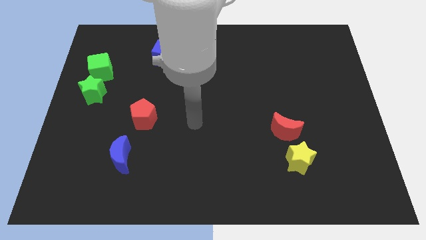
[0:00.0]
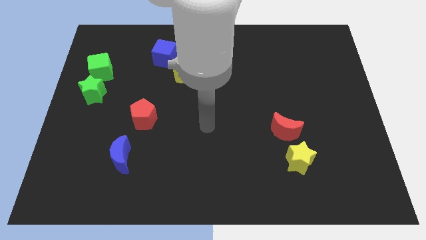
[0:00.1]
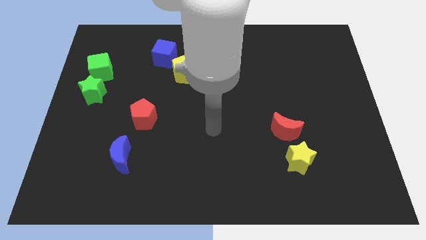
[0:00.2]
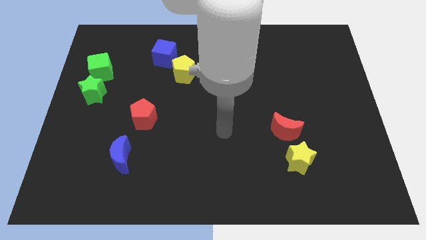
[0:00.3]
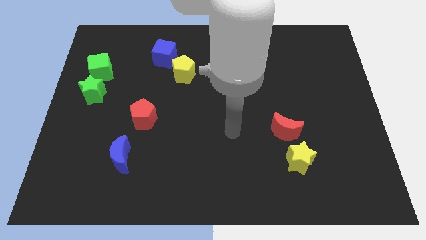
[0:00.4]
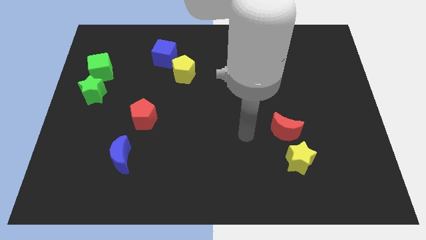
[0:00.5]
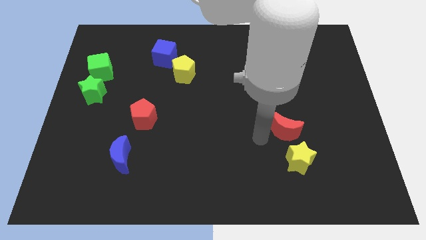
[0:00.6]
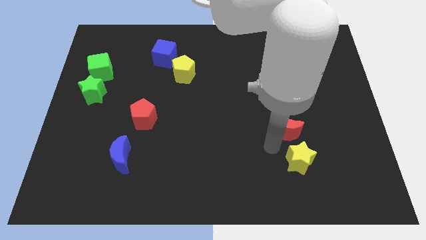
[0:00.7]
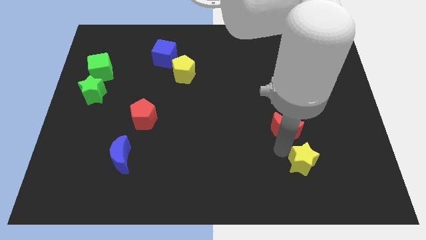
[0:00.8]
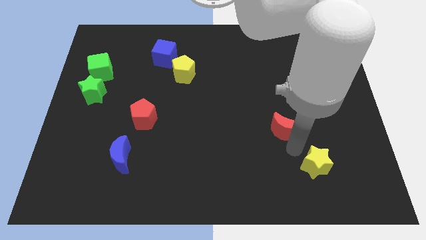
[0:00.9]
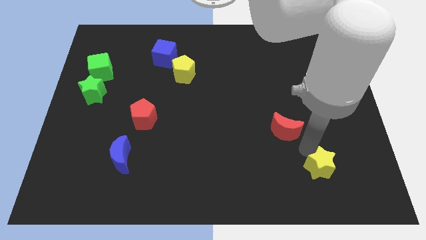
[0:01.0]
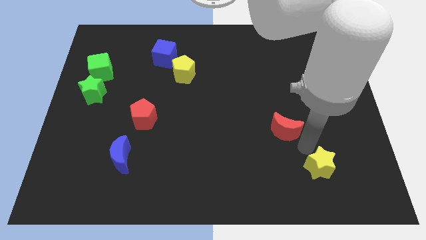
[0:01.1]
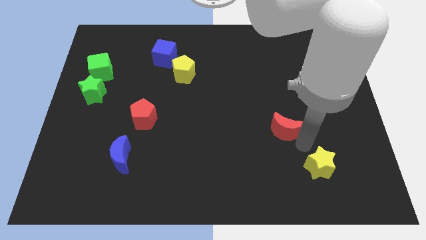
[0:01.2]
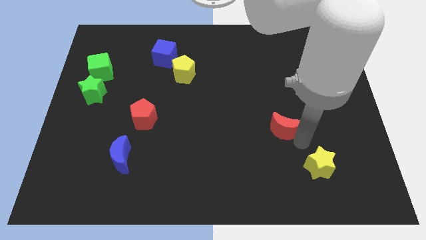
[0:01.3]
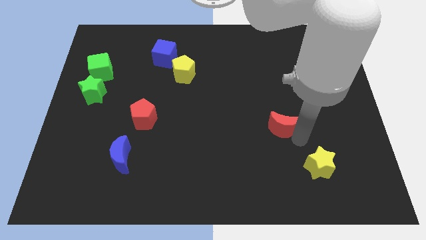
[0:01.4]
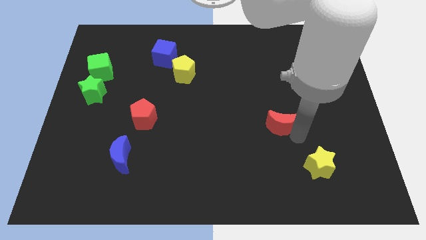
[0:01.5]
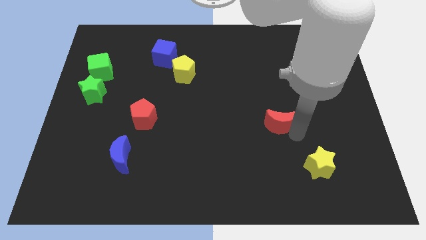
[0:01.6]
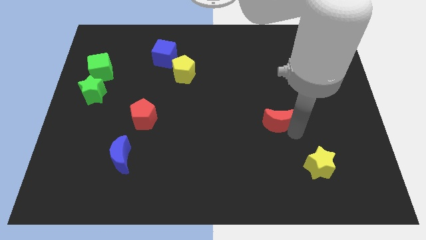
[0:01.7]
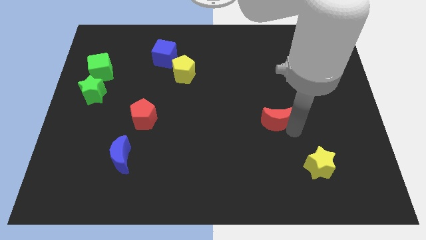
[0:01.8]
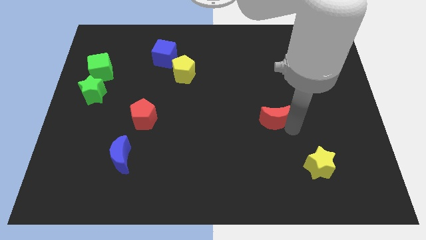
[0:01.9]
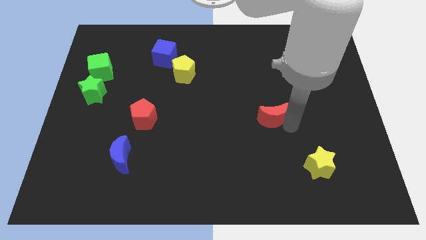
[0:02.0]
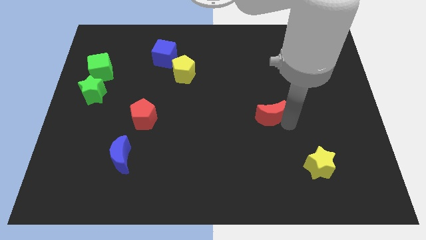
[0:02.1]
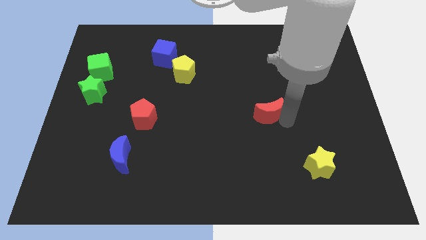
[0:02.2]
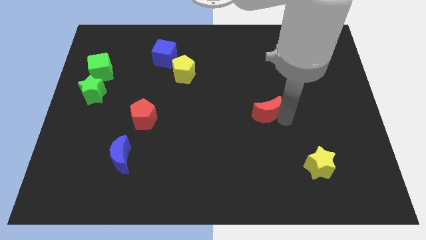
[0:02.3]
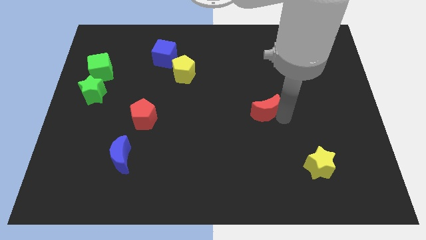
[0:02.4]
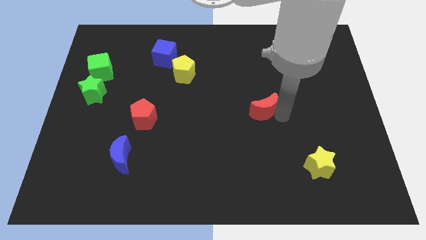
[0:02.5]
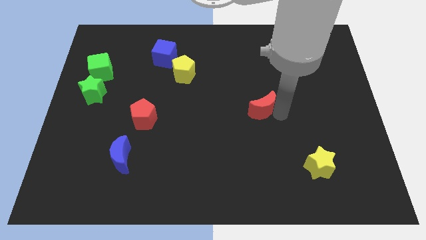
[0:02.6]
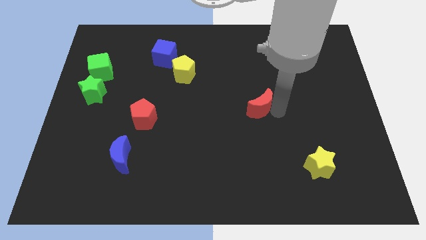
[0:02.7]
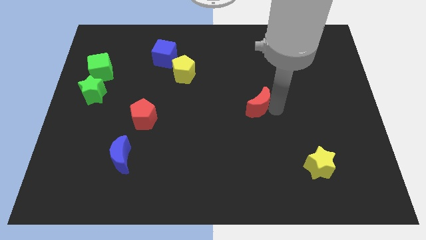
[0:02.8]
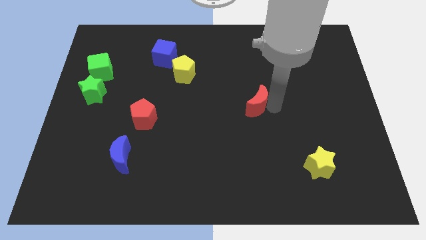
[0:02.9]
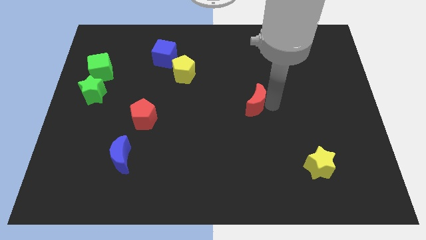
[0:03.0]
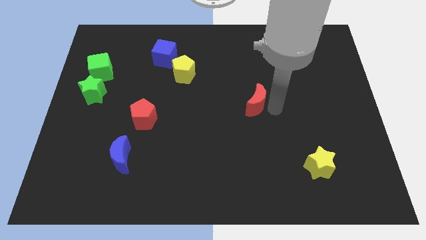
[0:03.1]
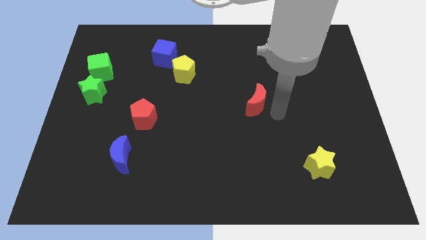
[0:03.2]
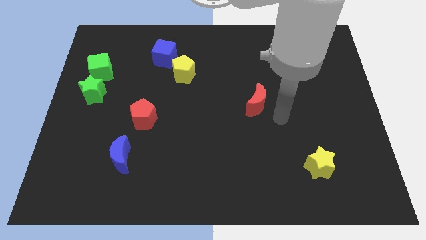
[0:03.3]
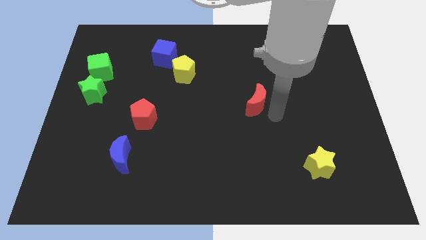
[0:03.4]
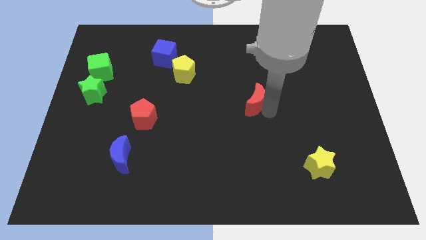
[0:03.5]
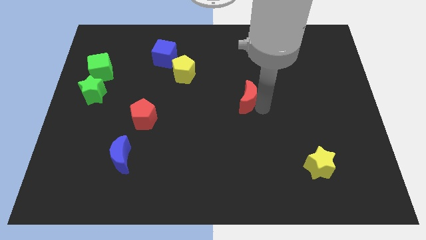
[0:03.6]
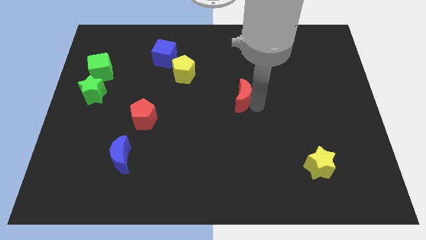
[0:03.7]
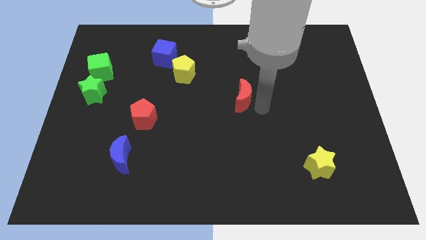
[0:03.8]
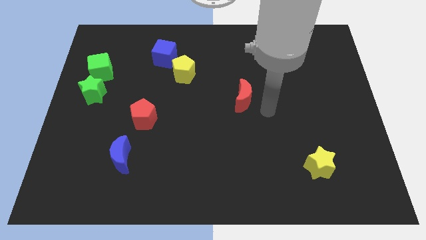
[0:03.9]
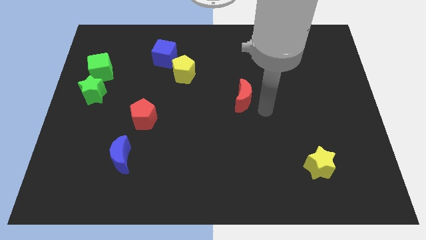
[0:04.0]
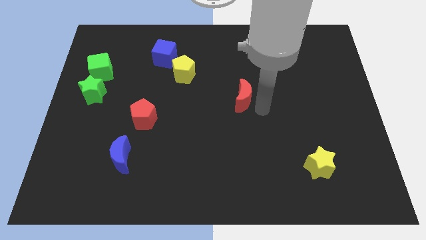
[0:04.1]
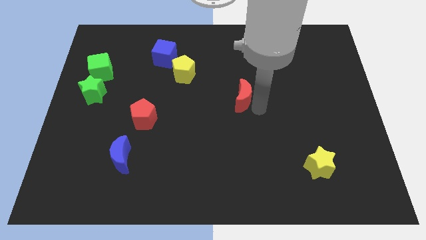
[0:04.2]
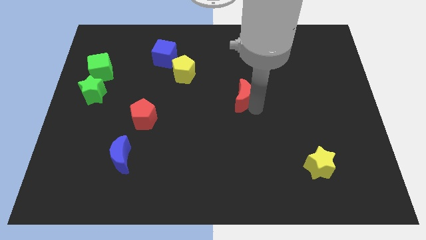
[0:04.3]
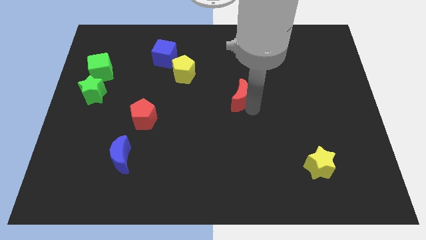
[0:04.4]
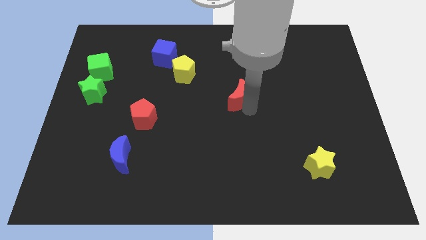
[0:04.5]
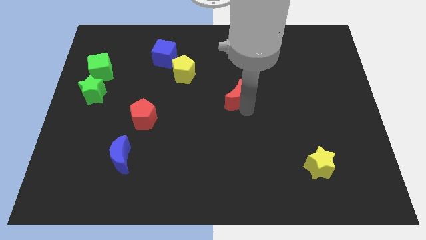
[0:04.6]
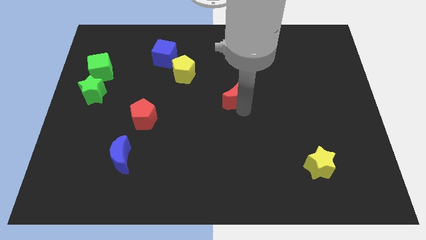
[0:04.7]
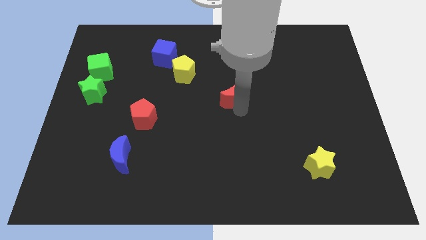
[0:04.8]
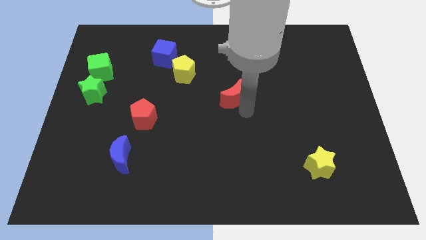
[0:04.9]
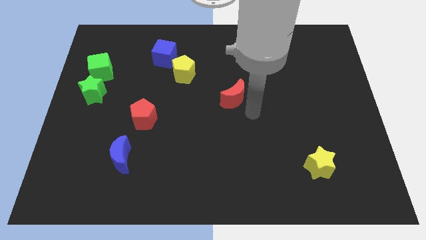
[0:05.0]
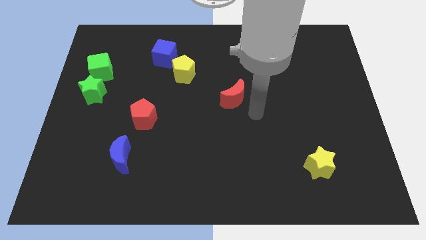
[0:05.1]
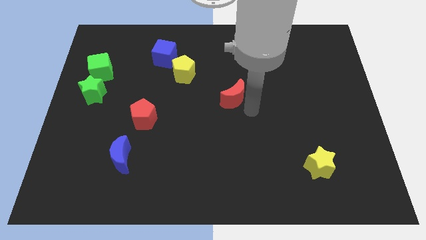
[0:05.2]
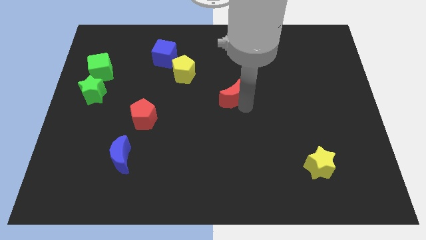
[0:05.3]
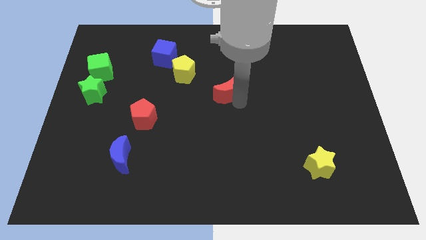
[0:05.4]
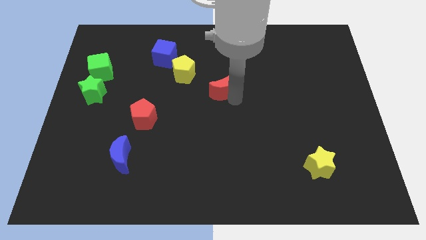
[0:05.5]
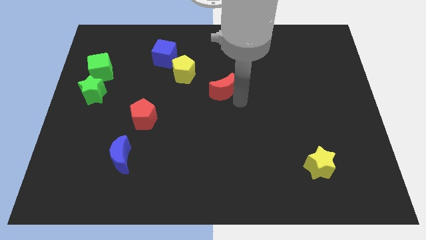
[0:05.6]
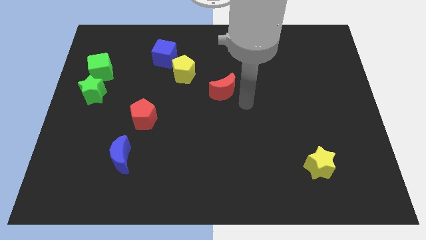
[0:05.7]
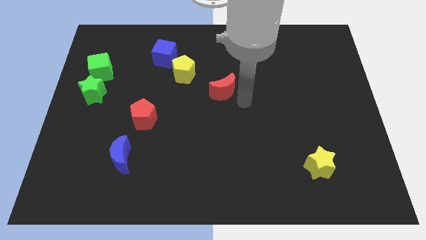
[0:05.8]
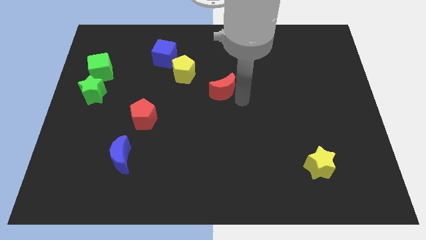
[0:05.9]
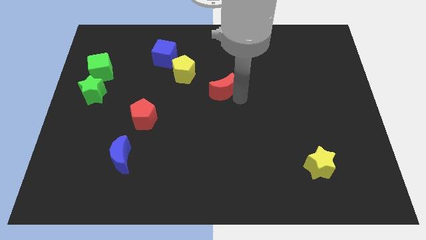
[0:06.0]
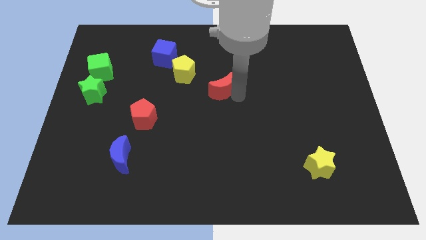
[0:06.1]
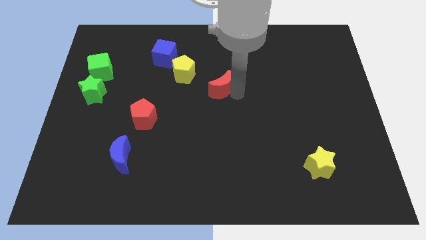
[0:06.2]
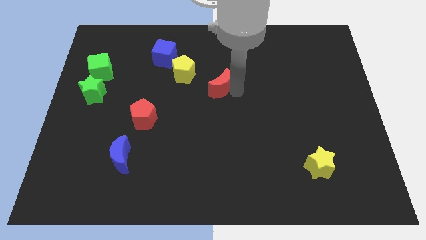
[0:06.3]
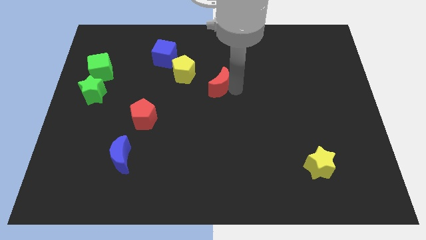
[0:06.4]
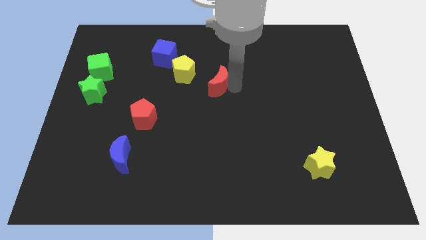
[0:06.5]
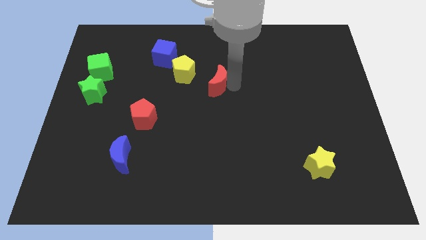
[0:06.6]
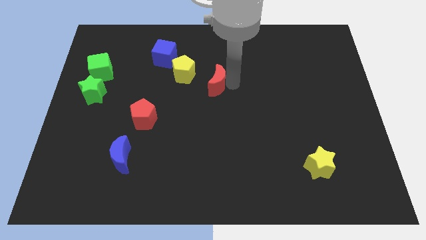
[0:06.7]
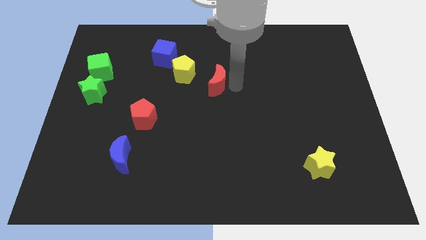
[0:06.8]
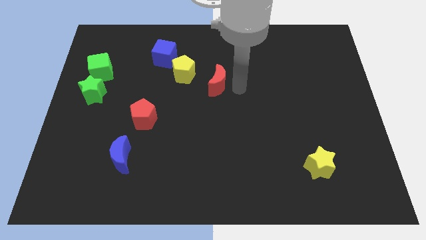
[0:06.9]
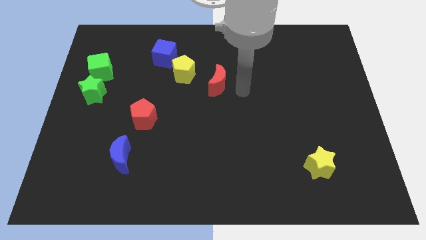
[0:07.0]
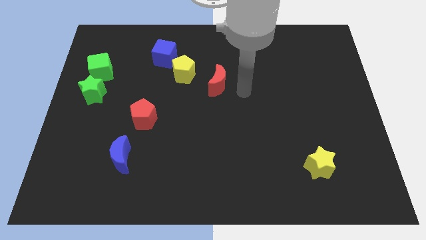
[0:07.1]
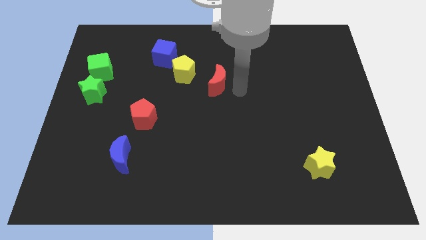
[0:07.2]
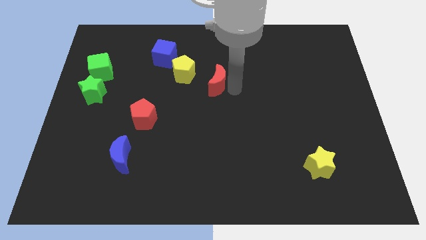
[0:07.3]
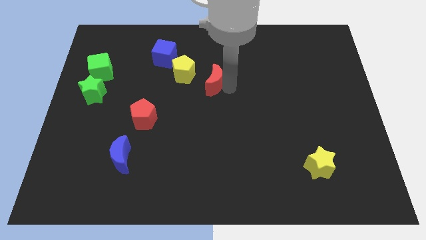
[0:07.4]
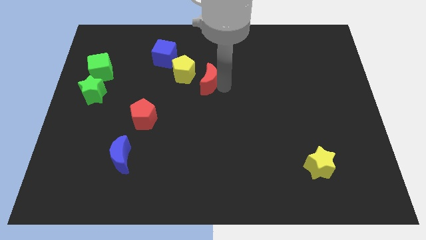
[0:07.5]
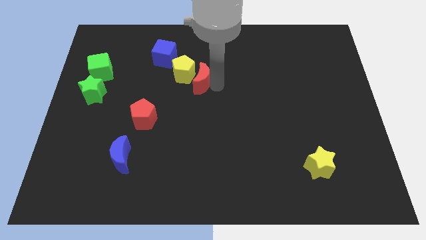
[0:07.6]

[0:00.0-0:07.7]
put the red moon next to the yellow pentagon
